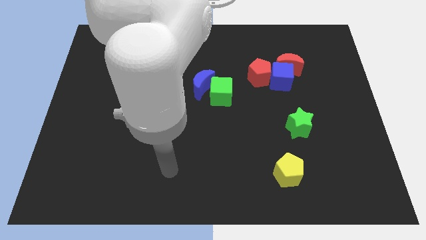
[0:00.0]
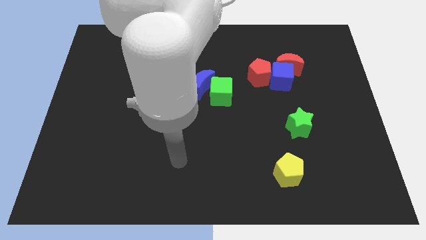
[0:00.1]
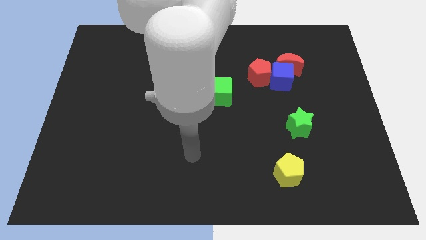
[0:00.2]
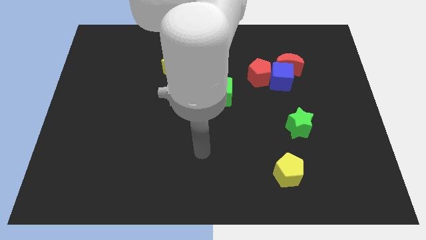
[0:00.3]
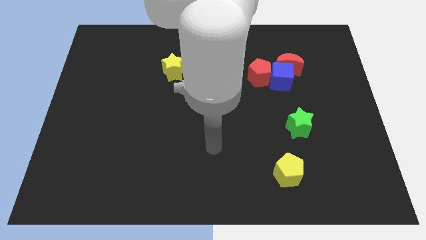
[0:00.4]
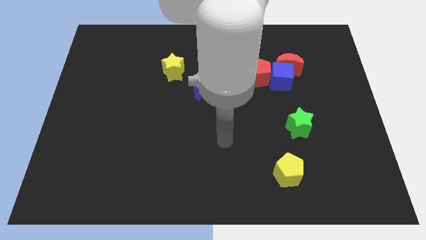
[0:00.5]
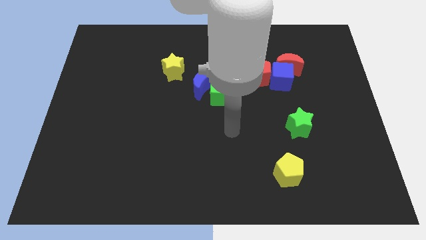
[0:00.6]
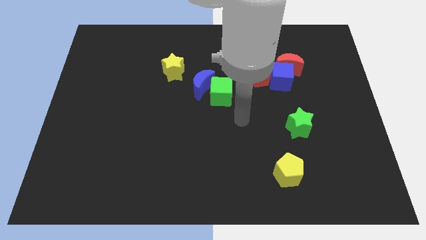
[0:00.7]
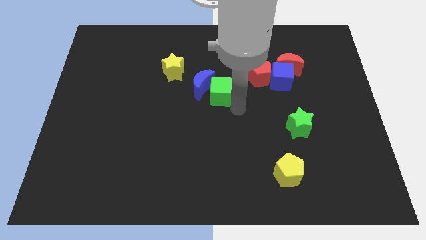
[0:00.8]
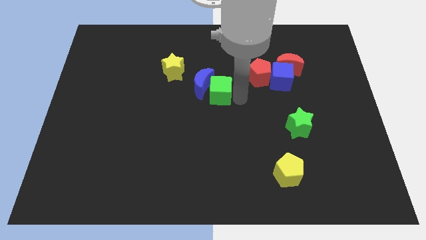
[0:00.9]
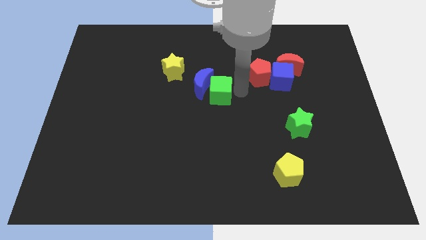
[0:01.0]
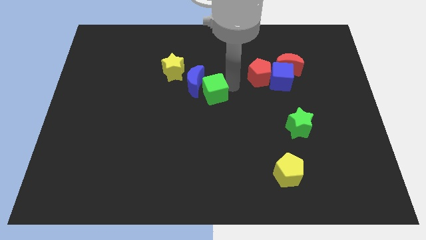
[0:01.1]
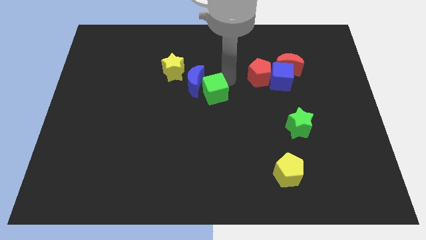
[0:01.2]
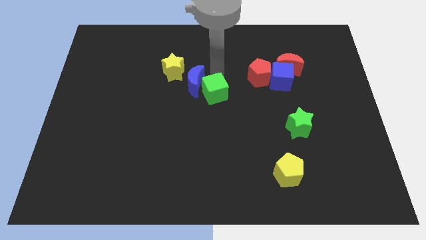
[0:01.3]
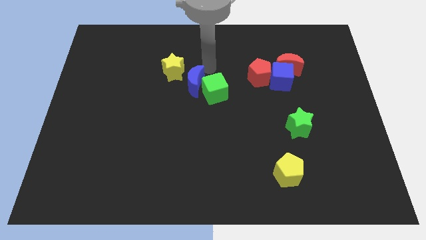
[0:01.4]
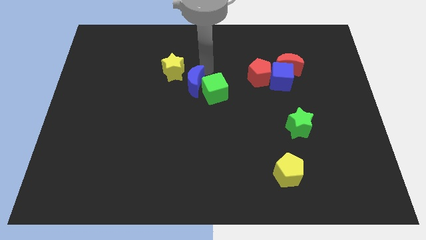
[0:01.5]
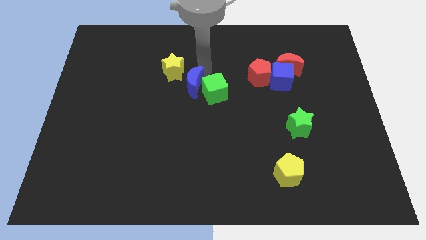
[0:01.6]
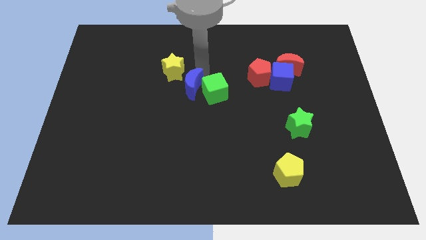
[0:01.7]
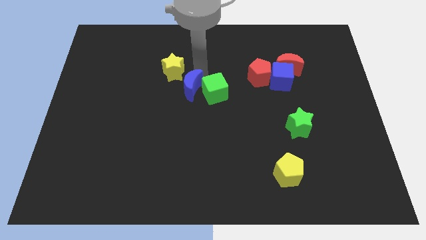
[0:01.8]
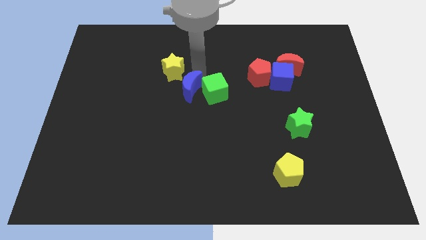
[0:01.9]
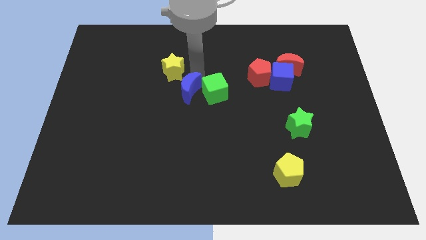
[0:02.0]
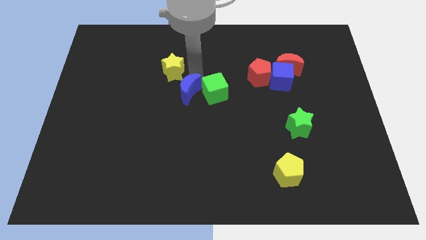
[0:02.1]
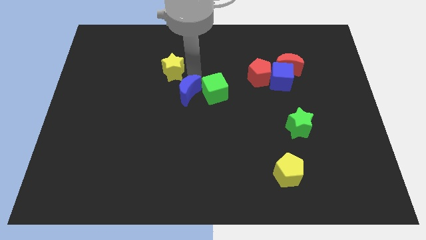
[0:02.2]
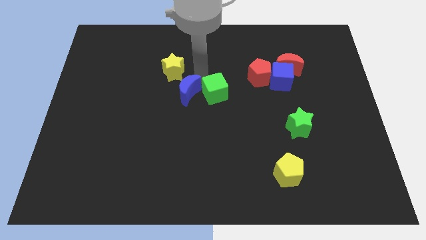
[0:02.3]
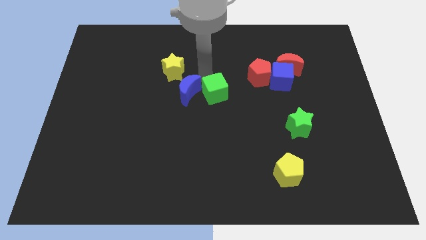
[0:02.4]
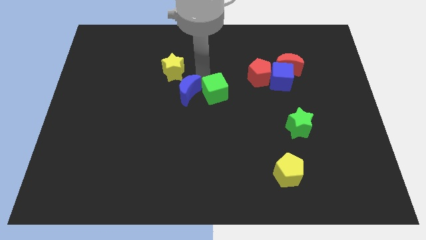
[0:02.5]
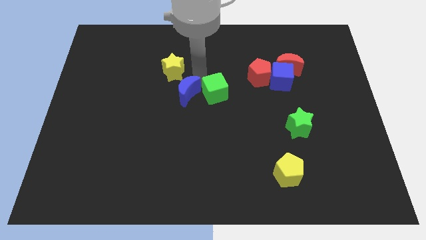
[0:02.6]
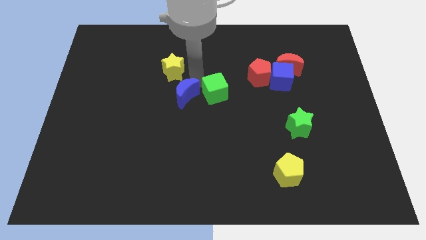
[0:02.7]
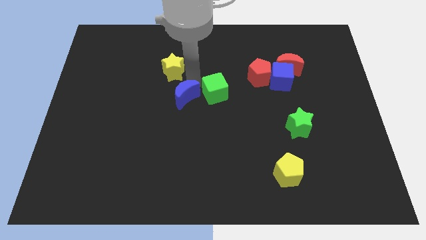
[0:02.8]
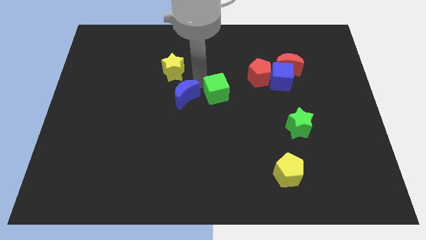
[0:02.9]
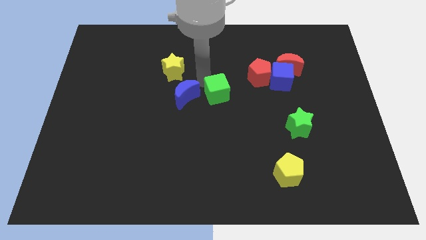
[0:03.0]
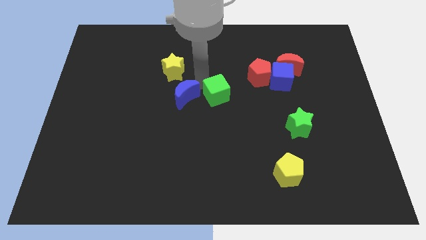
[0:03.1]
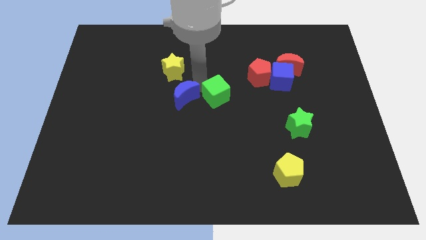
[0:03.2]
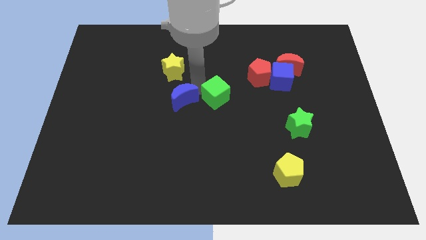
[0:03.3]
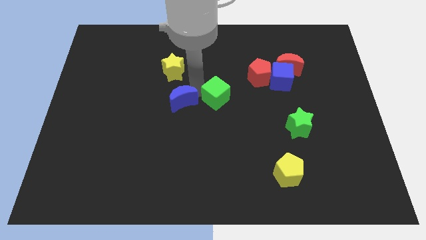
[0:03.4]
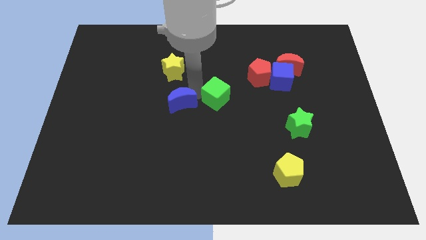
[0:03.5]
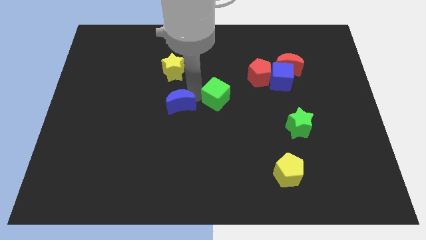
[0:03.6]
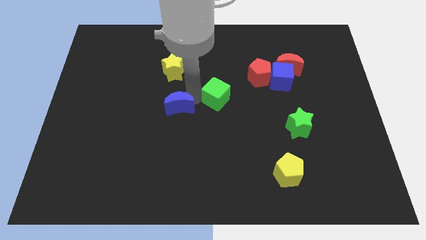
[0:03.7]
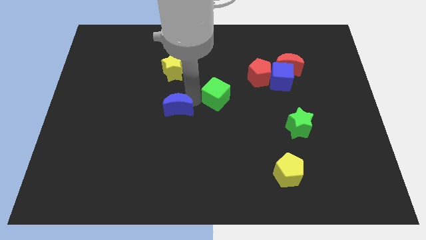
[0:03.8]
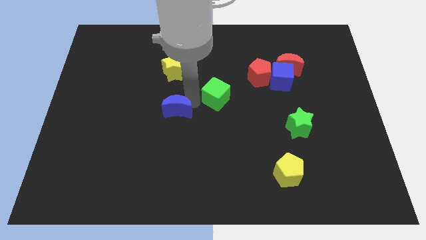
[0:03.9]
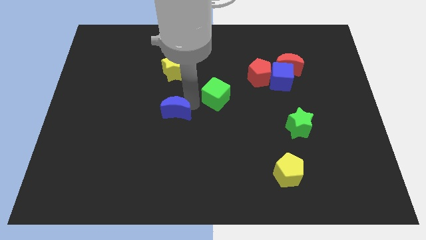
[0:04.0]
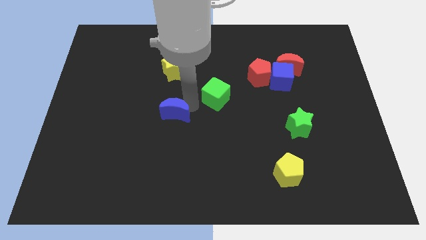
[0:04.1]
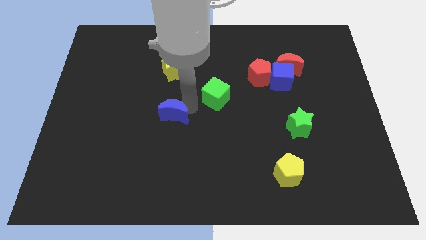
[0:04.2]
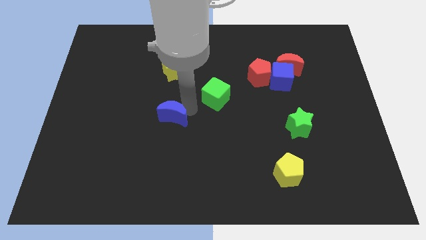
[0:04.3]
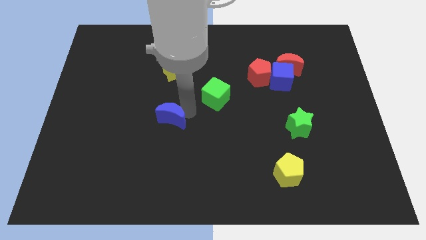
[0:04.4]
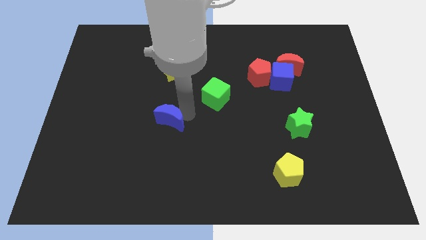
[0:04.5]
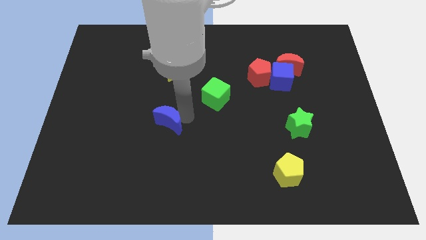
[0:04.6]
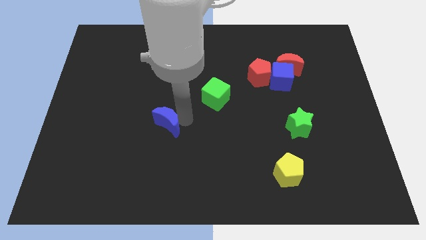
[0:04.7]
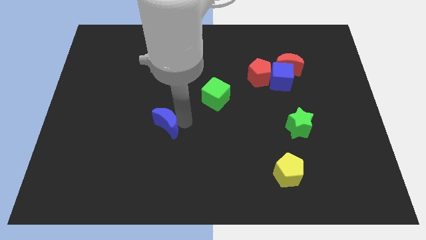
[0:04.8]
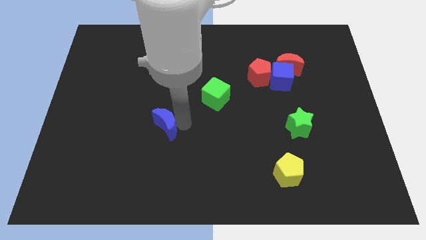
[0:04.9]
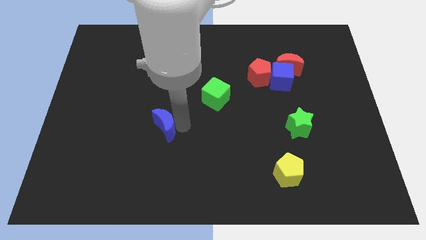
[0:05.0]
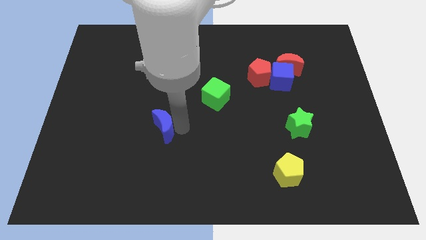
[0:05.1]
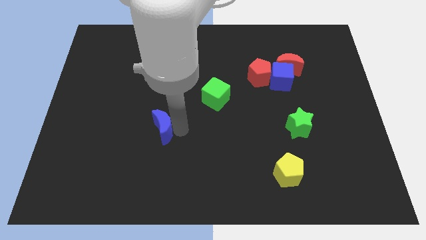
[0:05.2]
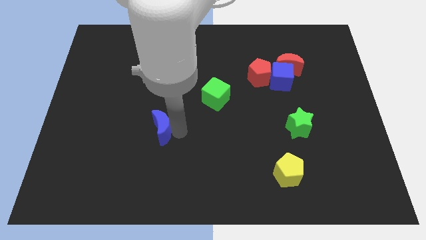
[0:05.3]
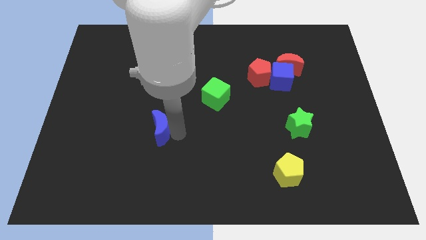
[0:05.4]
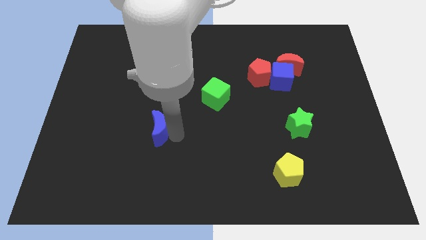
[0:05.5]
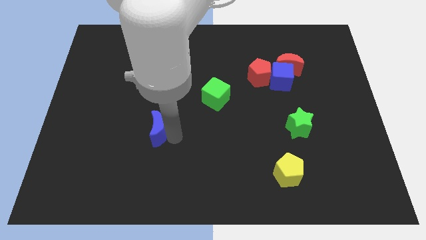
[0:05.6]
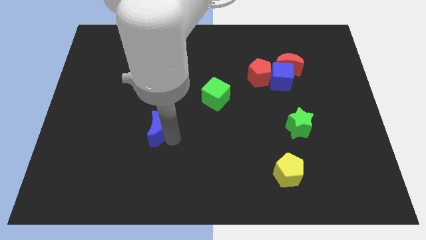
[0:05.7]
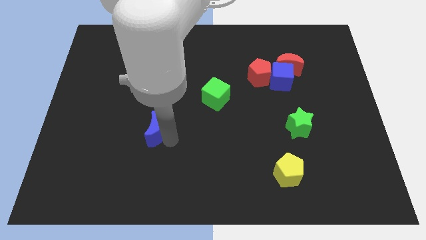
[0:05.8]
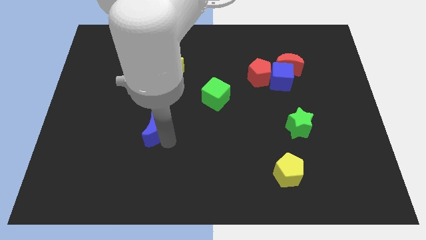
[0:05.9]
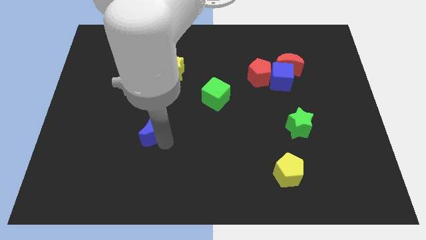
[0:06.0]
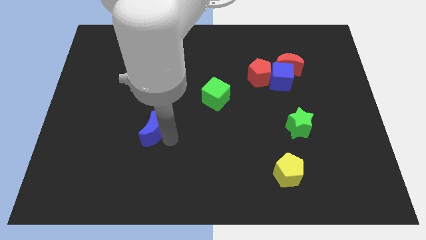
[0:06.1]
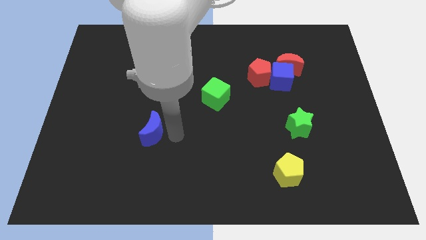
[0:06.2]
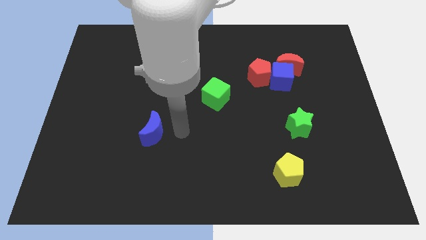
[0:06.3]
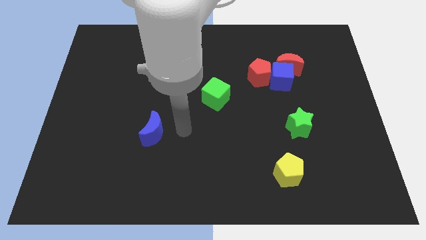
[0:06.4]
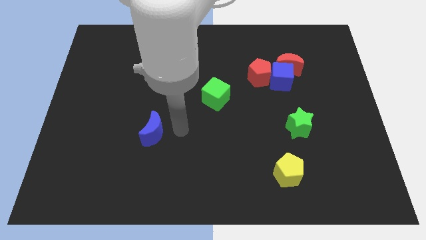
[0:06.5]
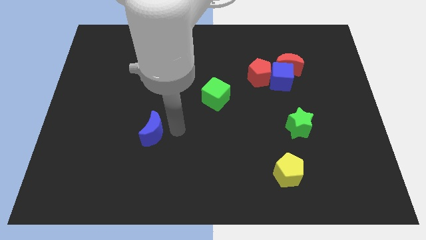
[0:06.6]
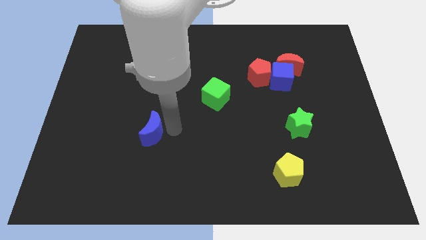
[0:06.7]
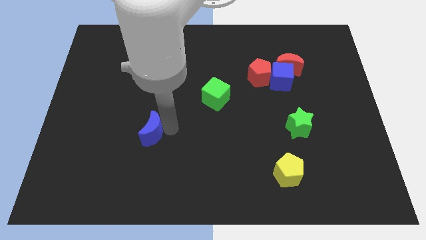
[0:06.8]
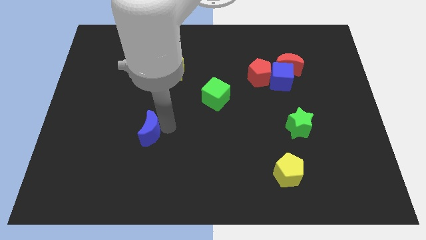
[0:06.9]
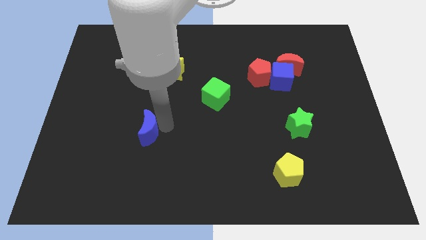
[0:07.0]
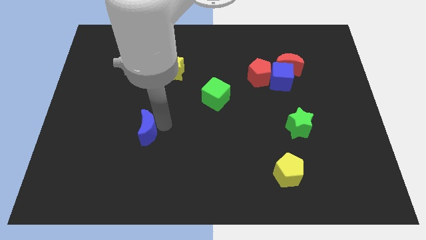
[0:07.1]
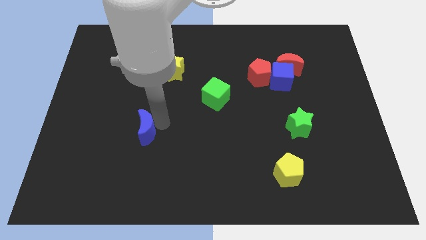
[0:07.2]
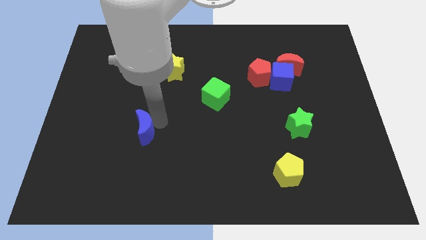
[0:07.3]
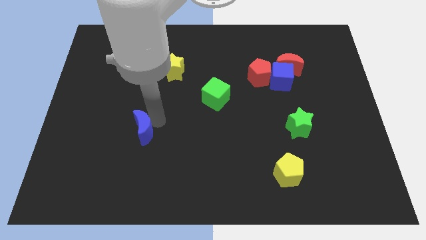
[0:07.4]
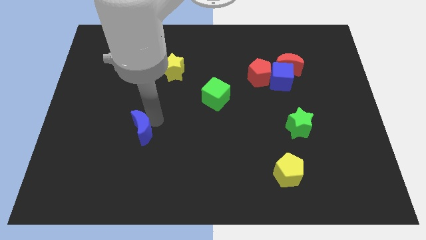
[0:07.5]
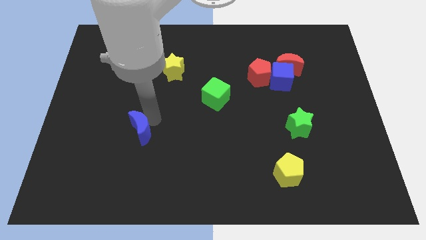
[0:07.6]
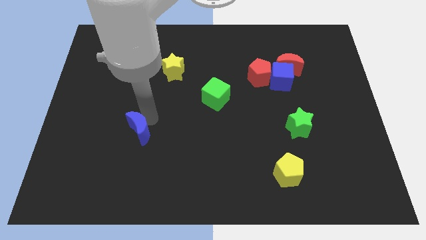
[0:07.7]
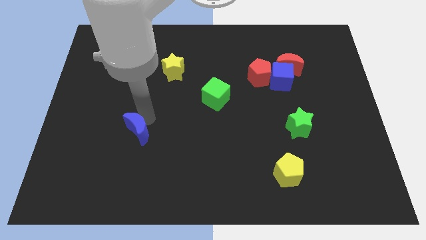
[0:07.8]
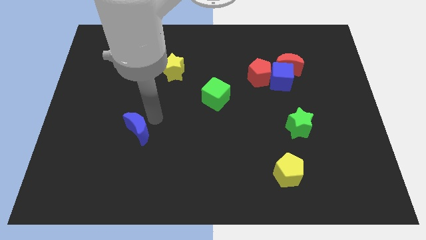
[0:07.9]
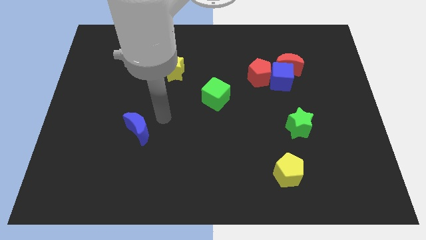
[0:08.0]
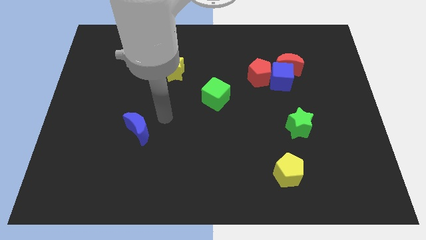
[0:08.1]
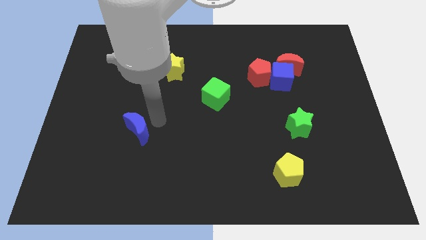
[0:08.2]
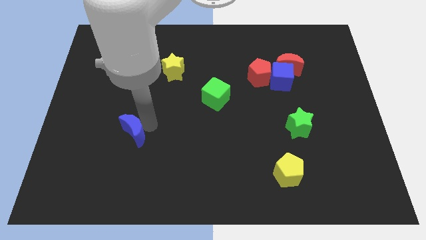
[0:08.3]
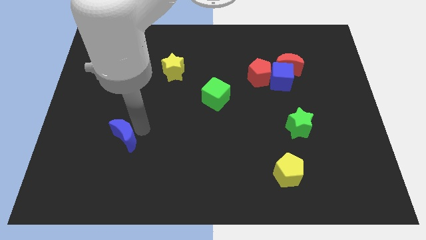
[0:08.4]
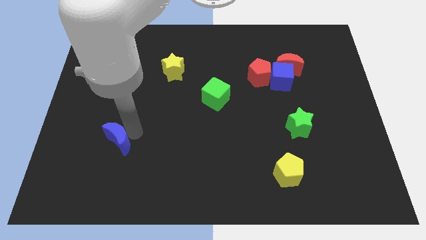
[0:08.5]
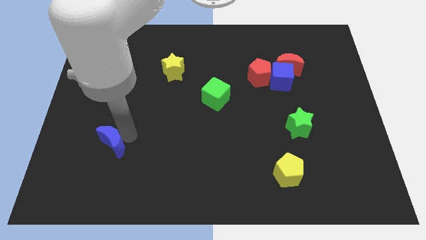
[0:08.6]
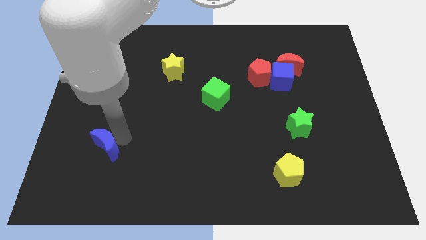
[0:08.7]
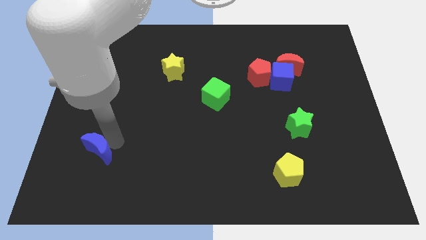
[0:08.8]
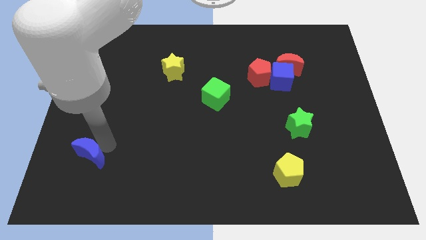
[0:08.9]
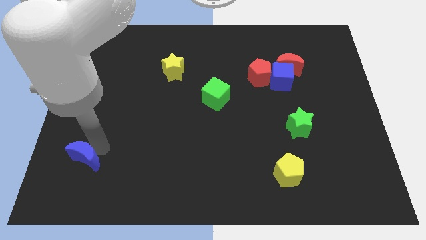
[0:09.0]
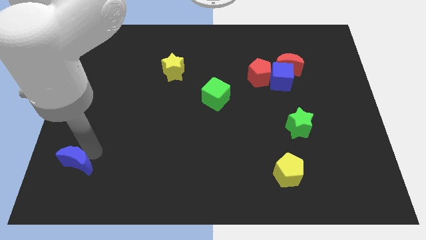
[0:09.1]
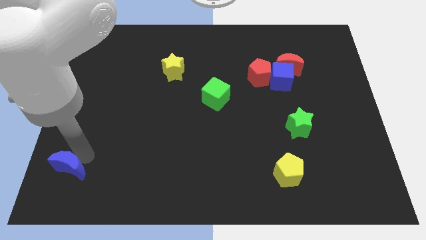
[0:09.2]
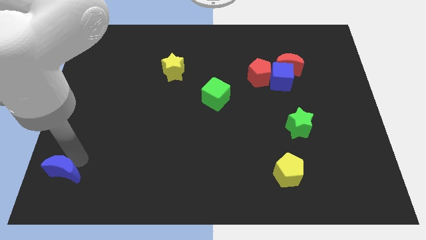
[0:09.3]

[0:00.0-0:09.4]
put the blue moon to the bottom left
